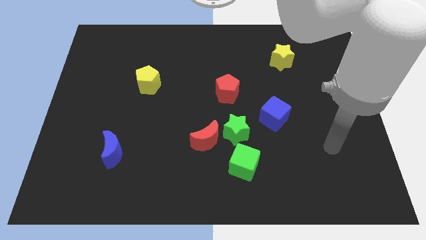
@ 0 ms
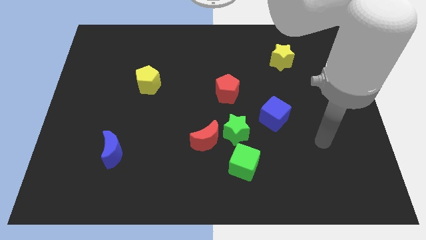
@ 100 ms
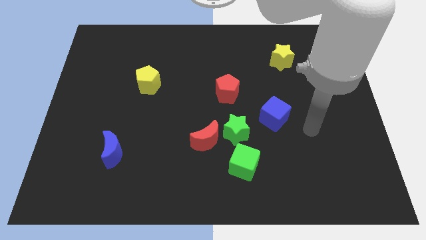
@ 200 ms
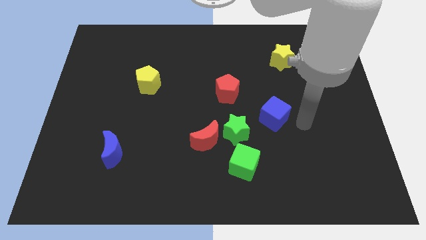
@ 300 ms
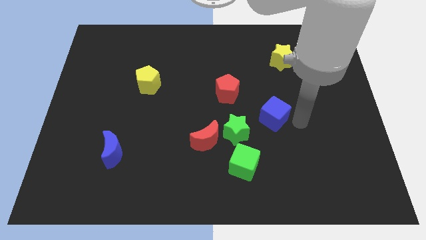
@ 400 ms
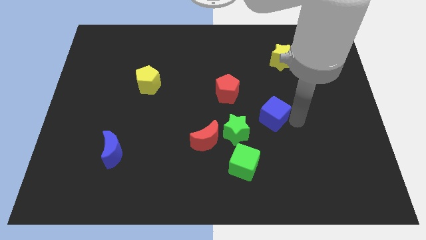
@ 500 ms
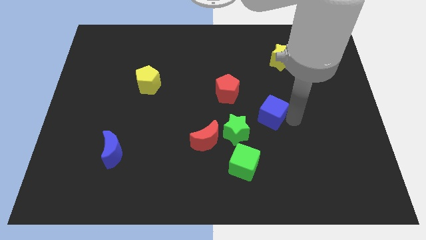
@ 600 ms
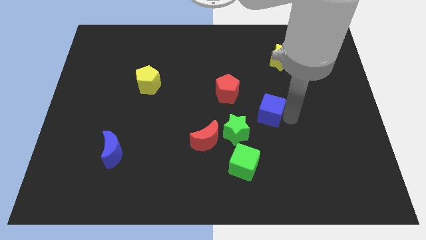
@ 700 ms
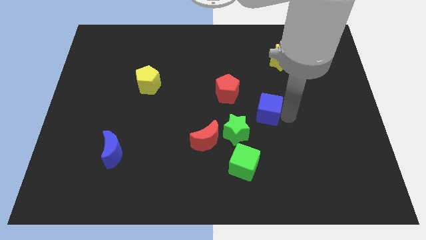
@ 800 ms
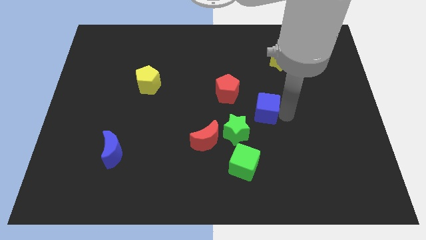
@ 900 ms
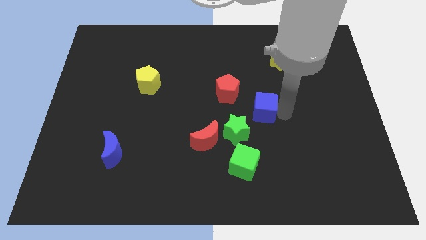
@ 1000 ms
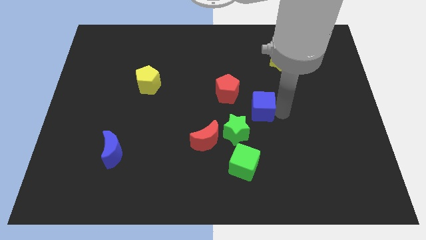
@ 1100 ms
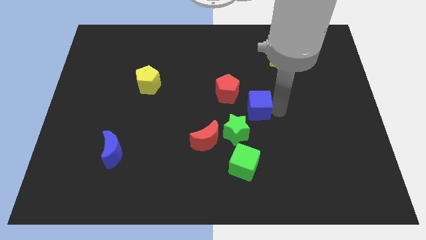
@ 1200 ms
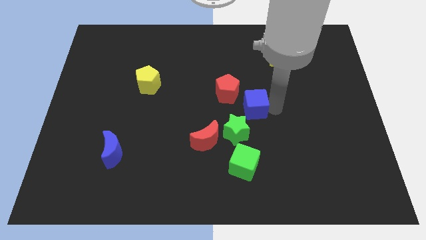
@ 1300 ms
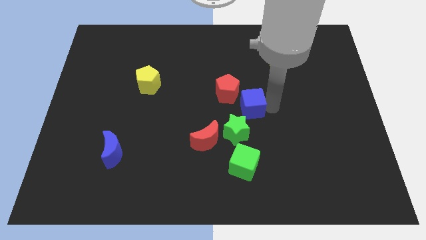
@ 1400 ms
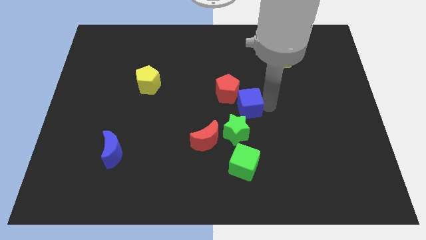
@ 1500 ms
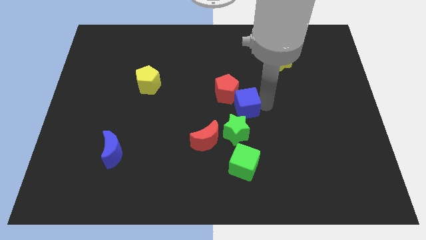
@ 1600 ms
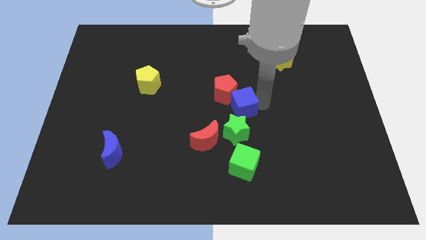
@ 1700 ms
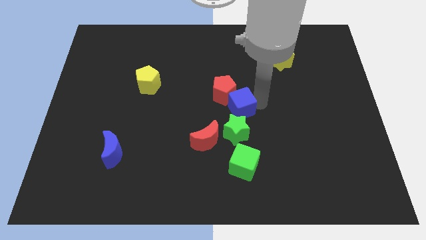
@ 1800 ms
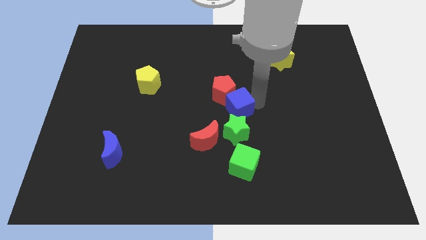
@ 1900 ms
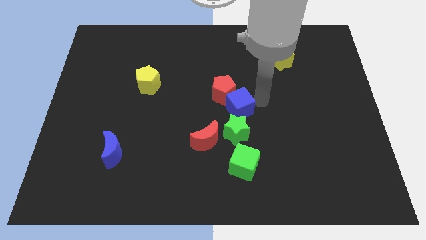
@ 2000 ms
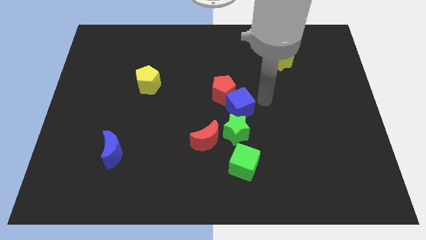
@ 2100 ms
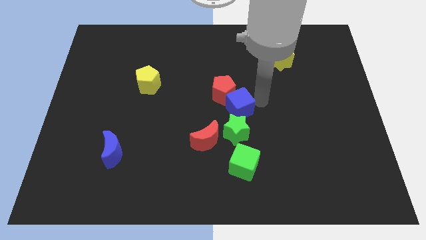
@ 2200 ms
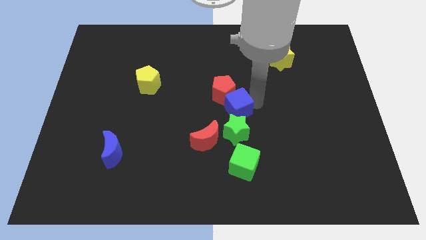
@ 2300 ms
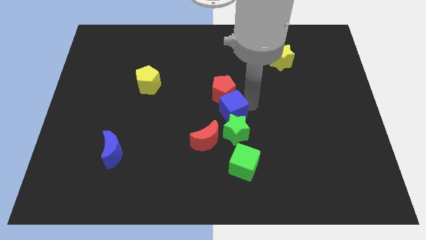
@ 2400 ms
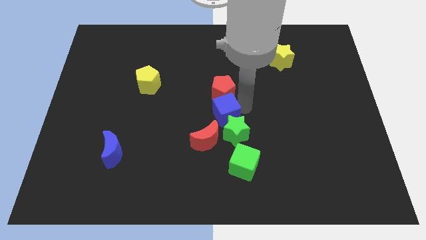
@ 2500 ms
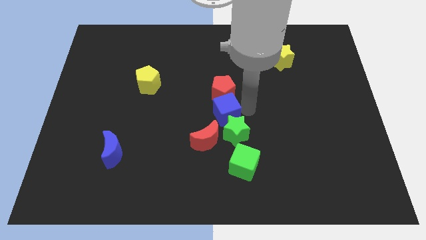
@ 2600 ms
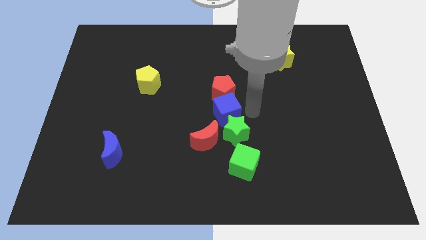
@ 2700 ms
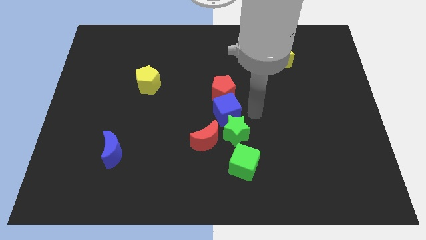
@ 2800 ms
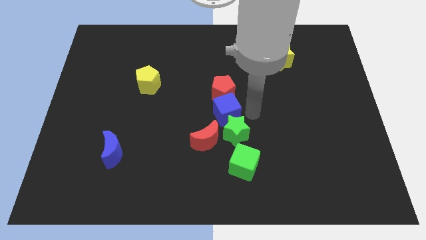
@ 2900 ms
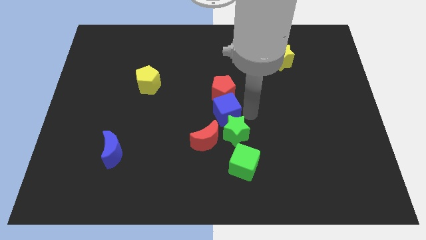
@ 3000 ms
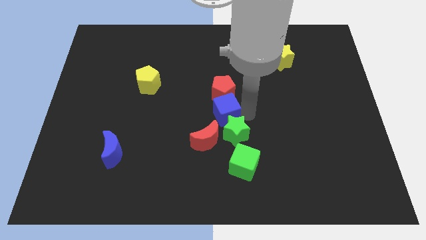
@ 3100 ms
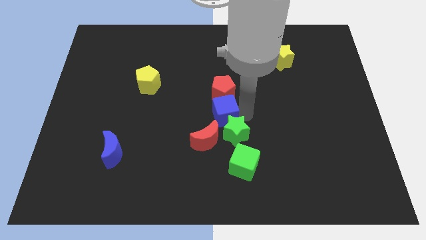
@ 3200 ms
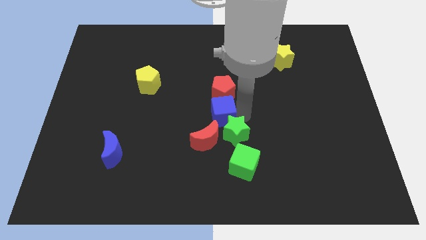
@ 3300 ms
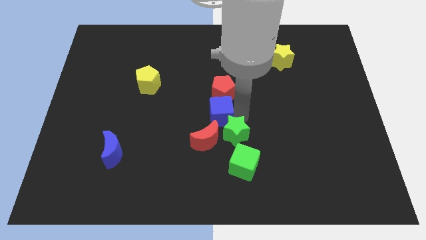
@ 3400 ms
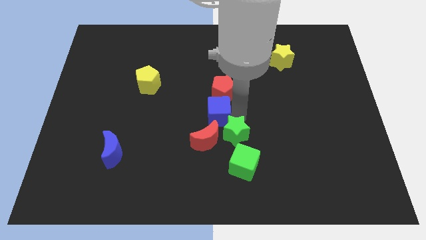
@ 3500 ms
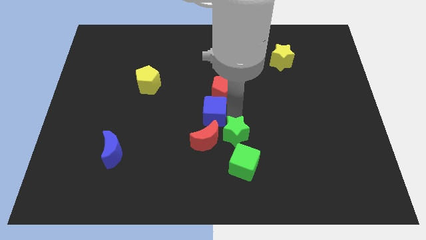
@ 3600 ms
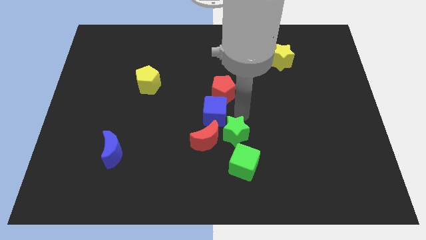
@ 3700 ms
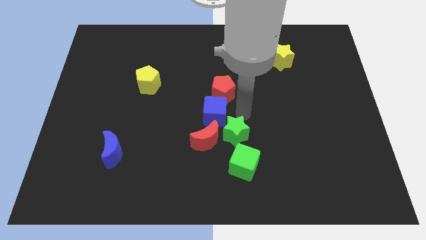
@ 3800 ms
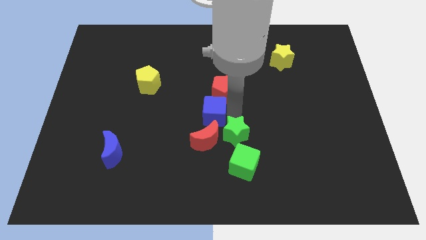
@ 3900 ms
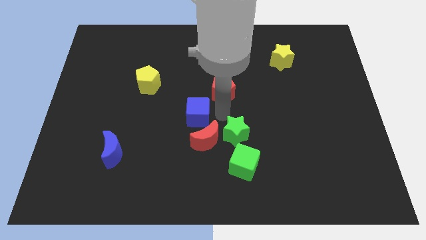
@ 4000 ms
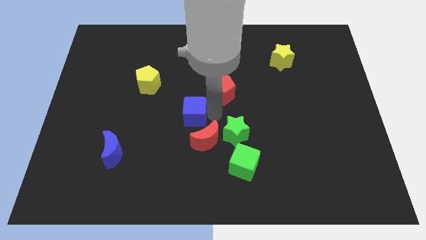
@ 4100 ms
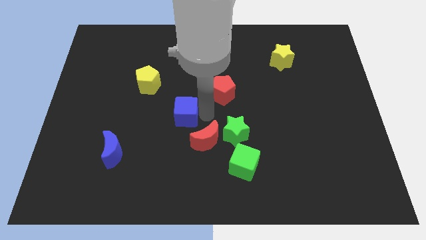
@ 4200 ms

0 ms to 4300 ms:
slide the blue cube to the left

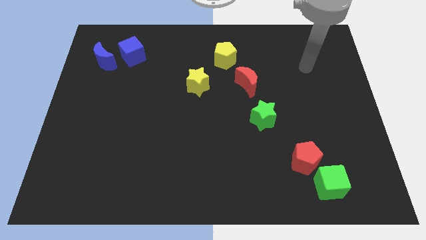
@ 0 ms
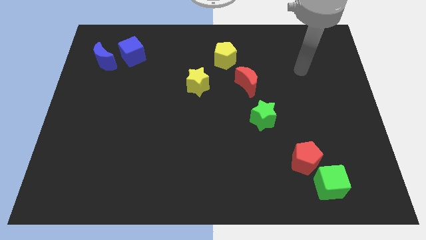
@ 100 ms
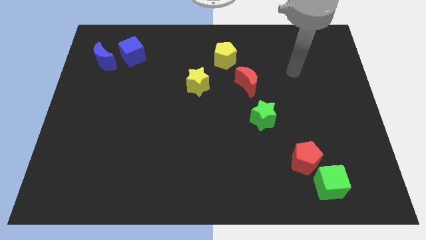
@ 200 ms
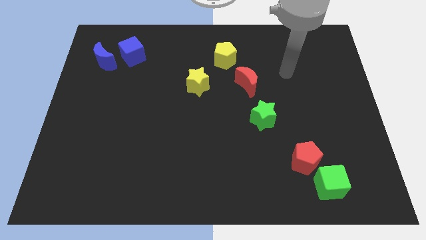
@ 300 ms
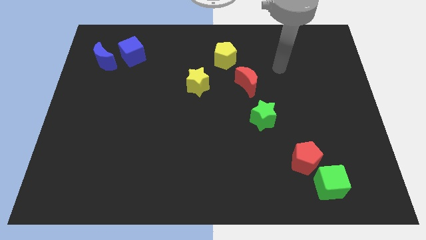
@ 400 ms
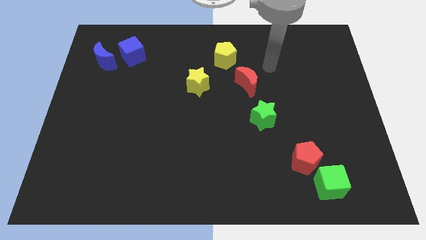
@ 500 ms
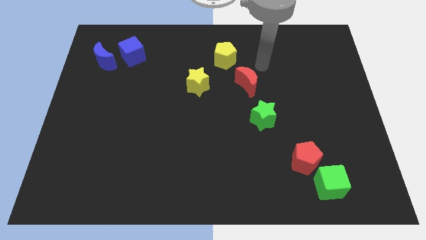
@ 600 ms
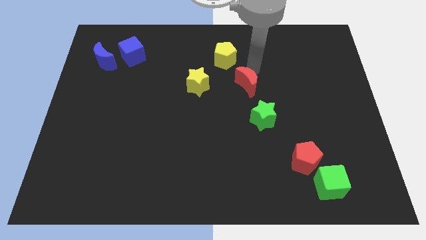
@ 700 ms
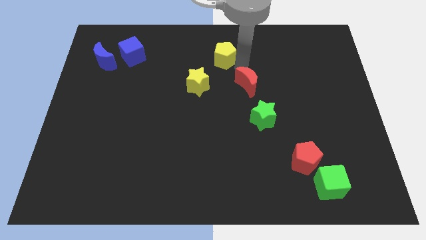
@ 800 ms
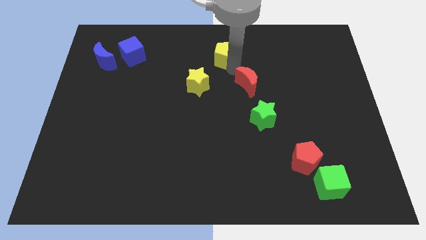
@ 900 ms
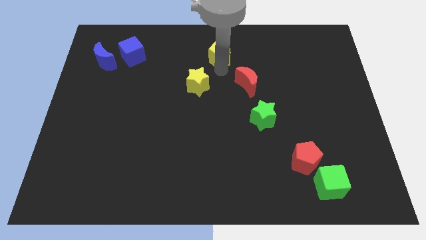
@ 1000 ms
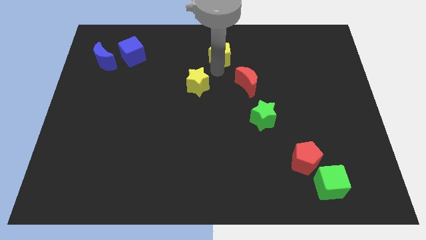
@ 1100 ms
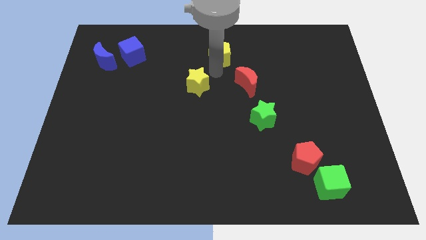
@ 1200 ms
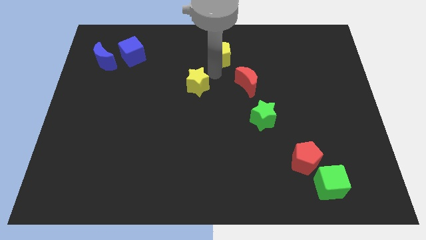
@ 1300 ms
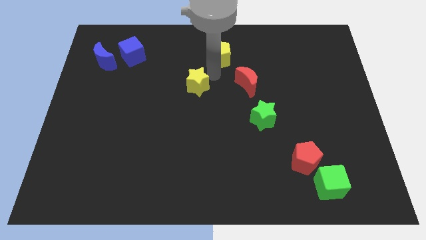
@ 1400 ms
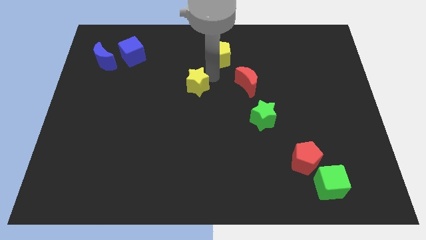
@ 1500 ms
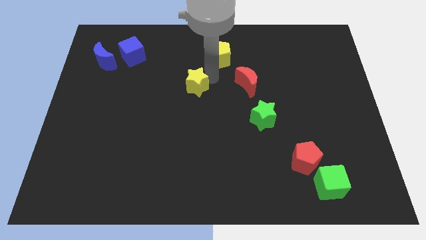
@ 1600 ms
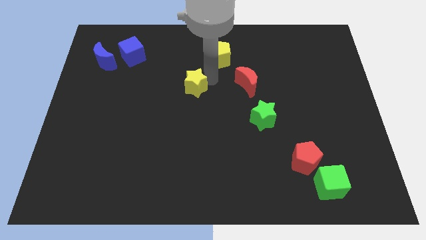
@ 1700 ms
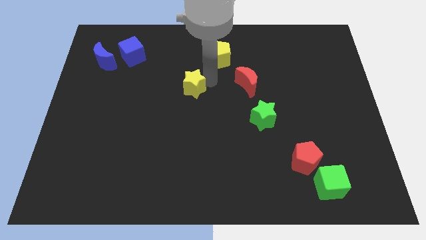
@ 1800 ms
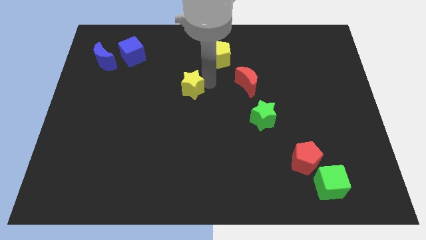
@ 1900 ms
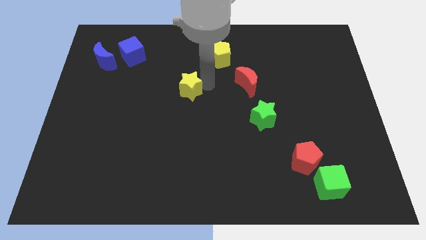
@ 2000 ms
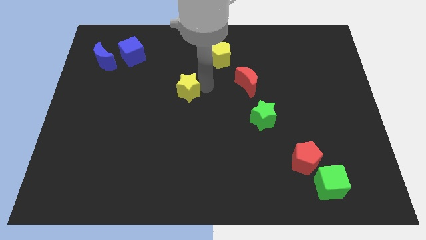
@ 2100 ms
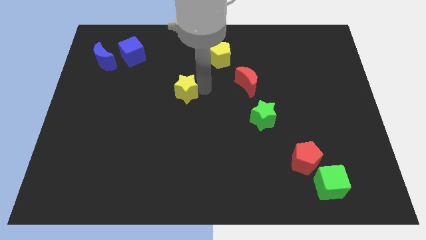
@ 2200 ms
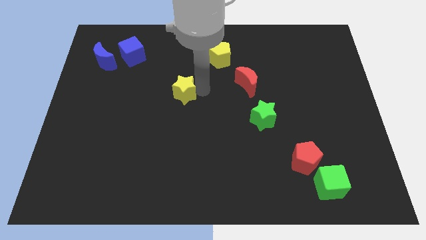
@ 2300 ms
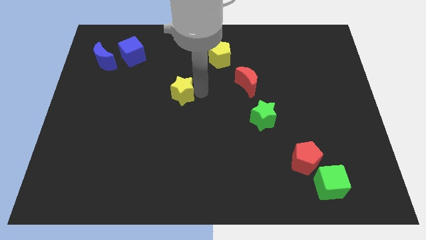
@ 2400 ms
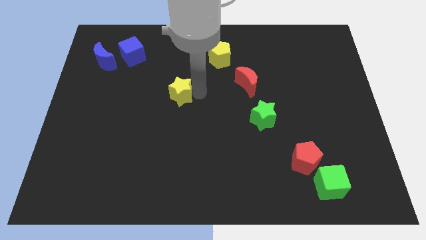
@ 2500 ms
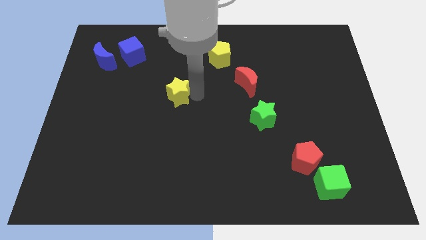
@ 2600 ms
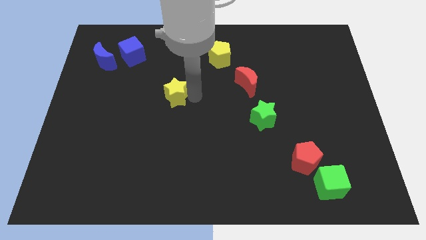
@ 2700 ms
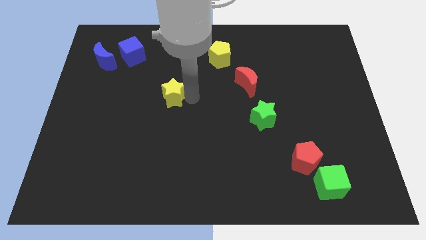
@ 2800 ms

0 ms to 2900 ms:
push the yellow star downwards and then to the left somewhat

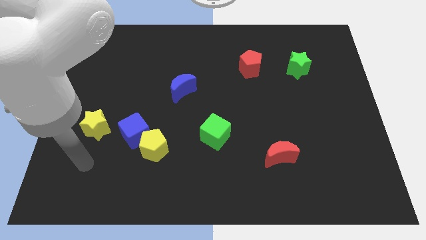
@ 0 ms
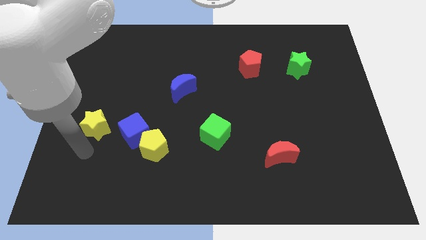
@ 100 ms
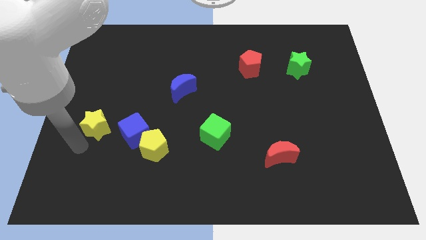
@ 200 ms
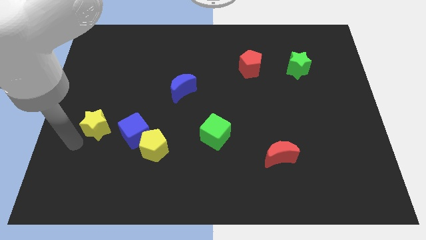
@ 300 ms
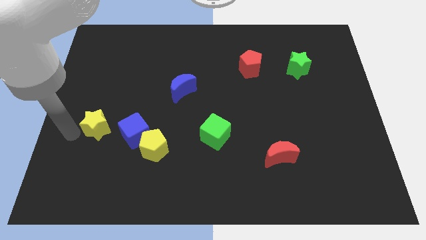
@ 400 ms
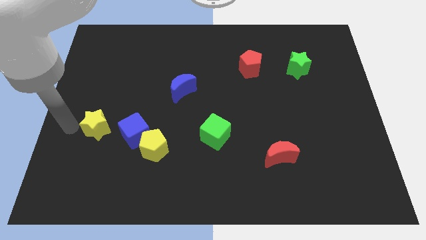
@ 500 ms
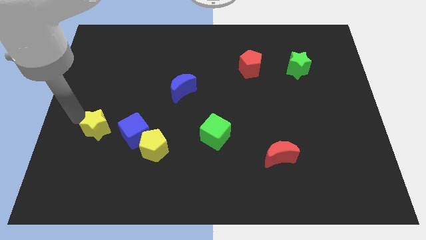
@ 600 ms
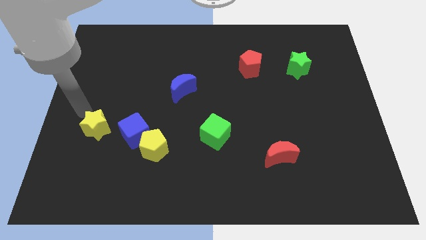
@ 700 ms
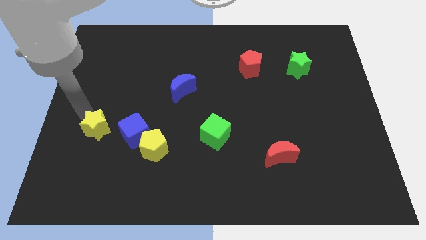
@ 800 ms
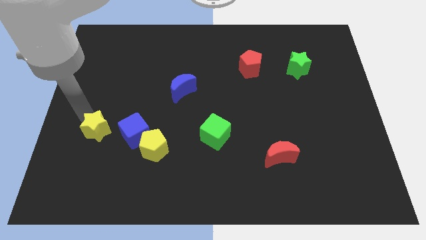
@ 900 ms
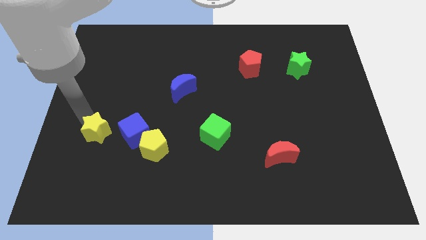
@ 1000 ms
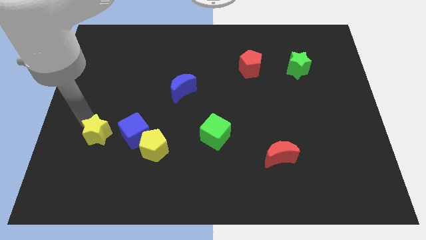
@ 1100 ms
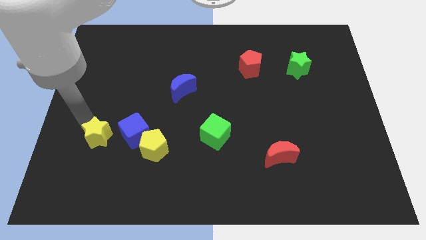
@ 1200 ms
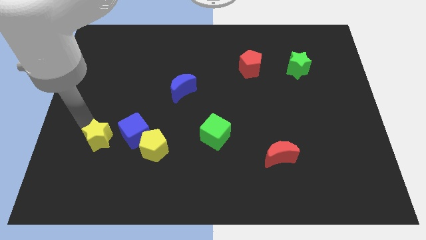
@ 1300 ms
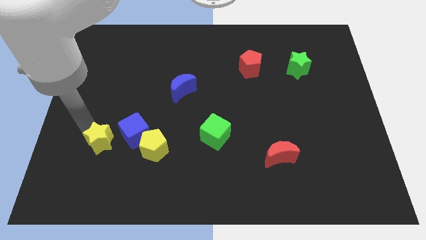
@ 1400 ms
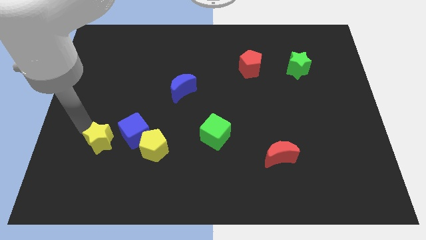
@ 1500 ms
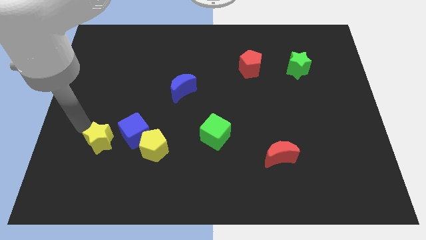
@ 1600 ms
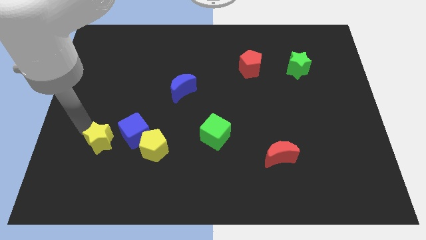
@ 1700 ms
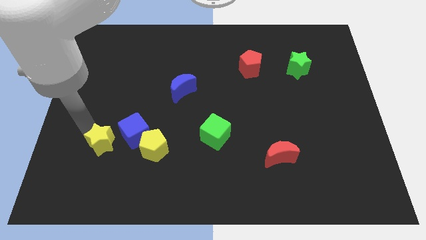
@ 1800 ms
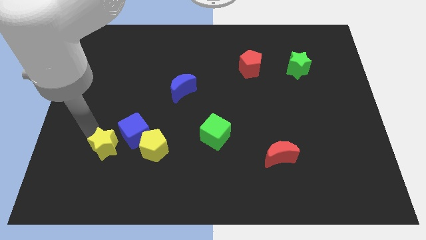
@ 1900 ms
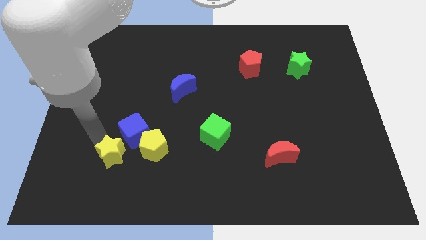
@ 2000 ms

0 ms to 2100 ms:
push the yellow star a little bit diagonally down and to the right
